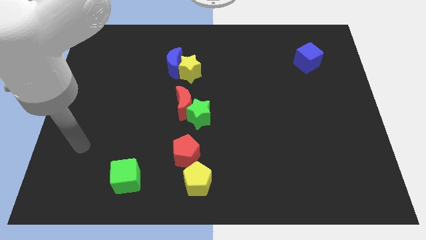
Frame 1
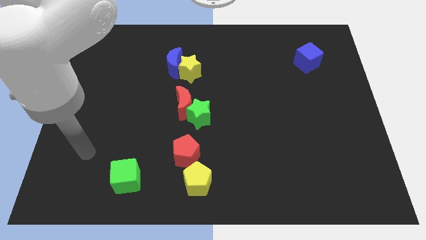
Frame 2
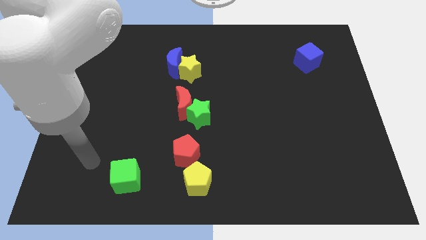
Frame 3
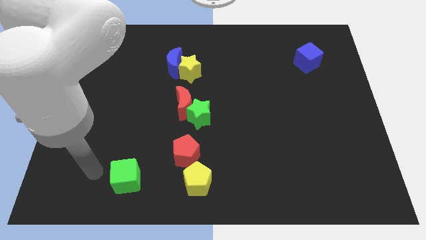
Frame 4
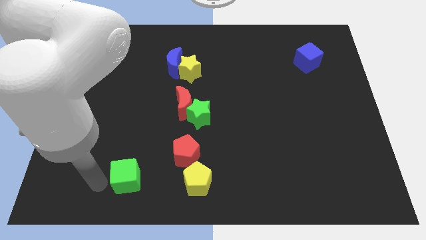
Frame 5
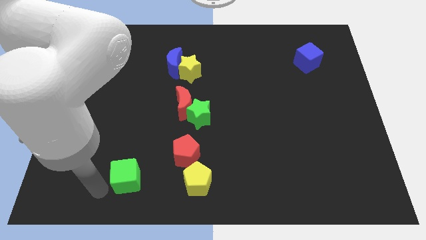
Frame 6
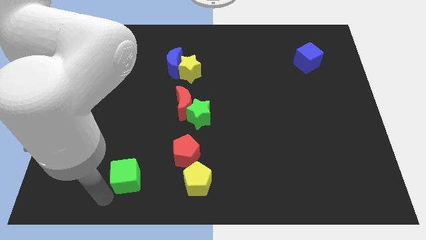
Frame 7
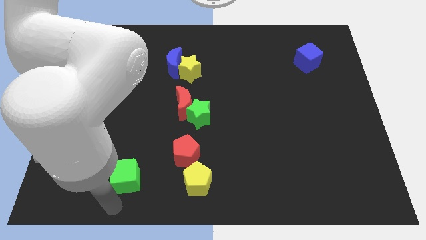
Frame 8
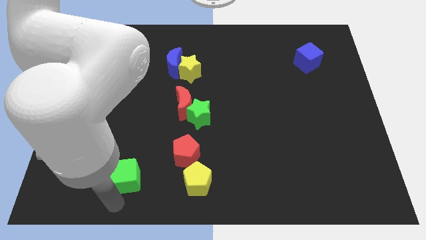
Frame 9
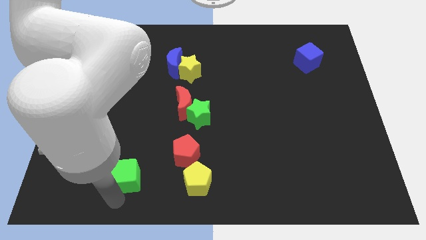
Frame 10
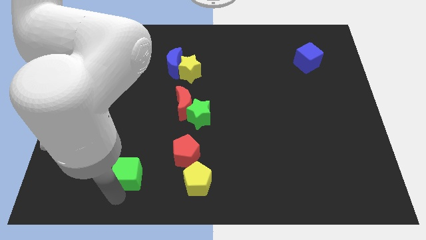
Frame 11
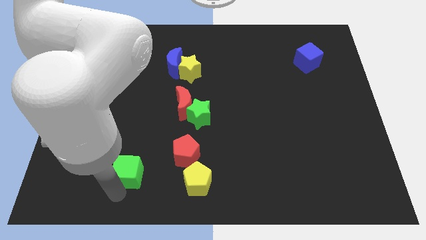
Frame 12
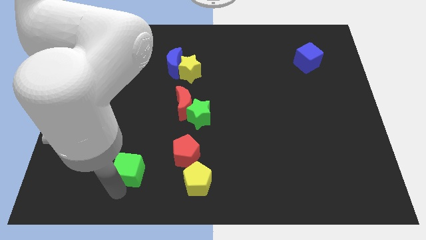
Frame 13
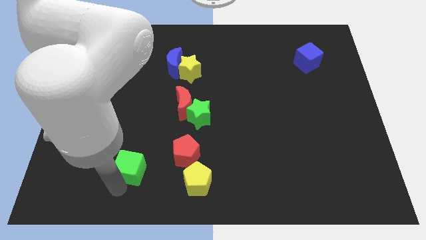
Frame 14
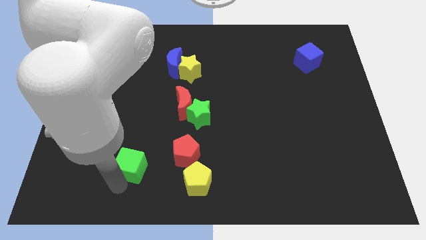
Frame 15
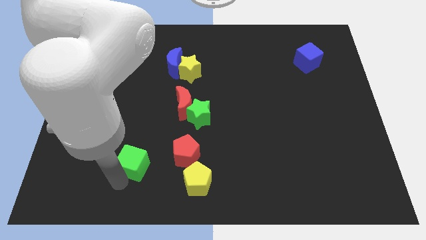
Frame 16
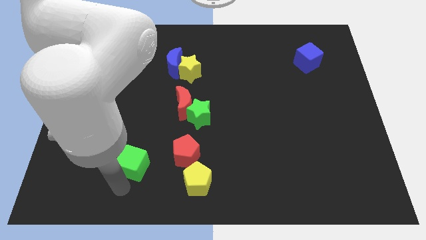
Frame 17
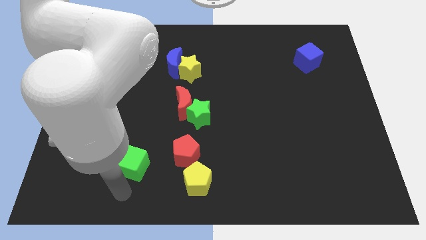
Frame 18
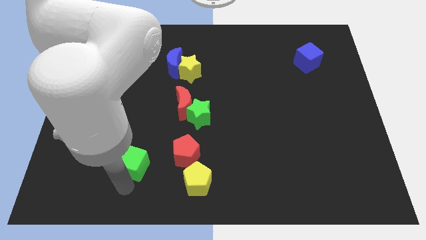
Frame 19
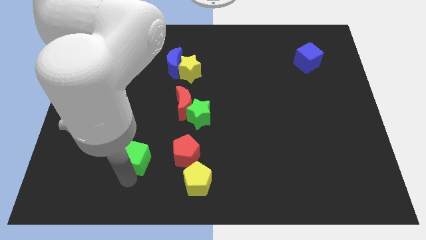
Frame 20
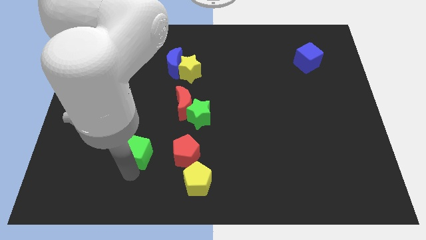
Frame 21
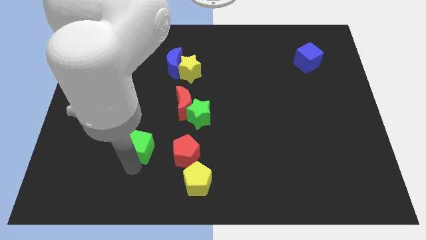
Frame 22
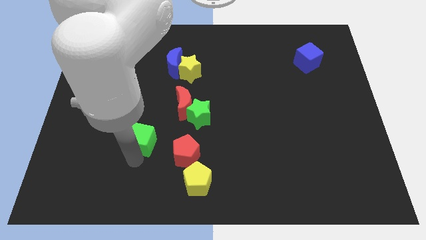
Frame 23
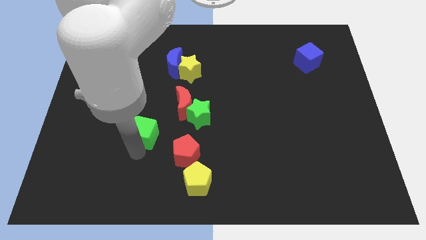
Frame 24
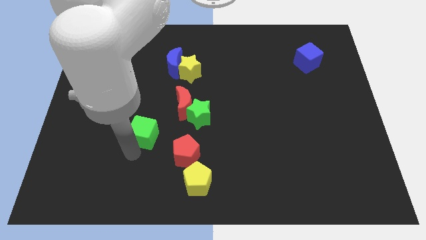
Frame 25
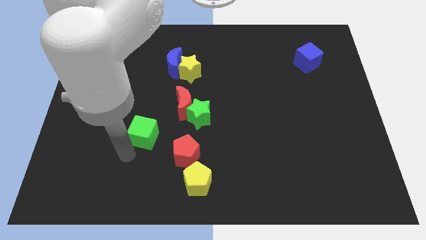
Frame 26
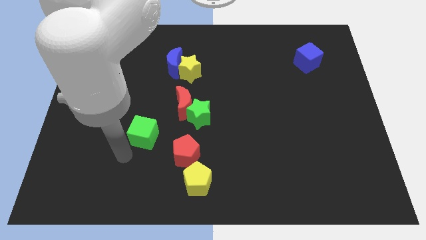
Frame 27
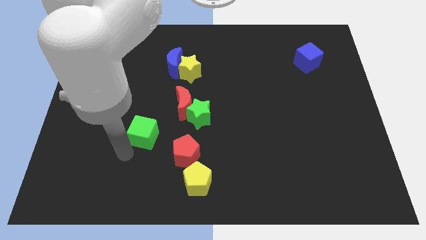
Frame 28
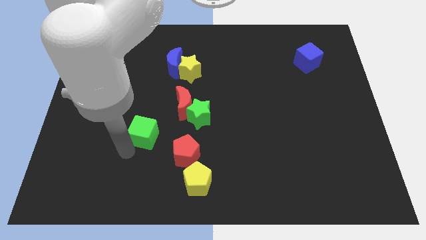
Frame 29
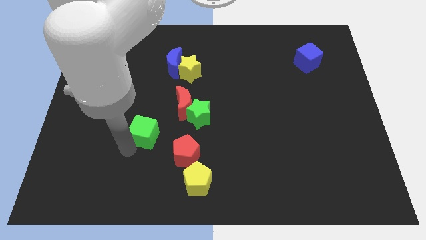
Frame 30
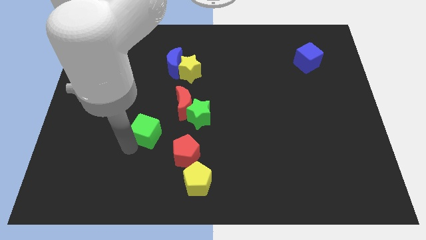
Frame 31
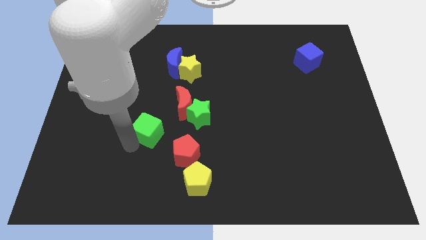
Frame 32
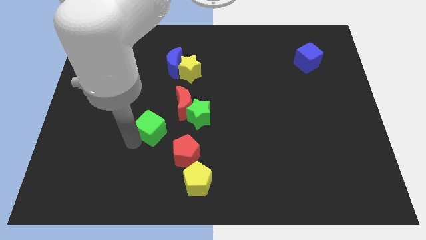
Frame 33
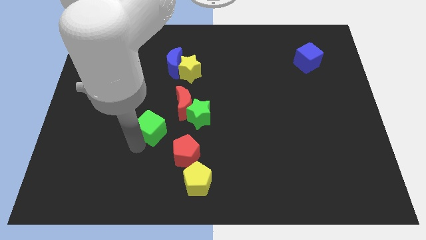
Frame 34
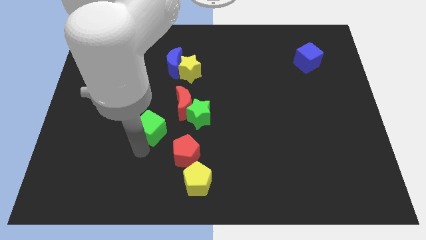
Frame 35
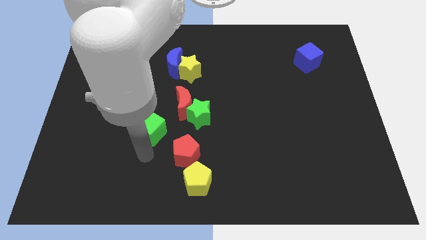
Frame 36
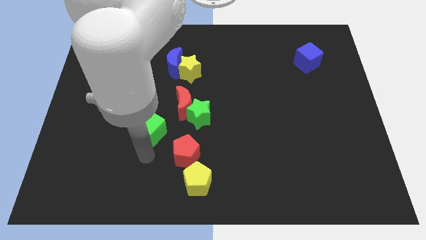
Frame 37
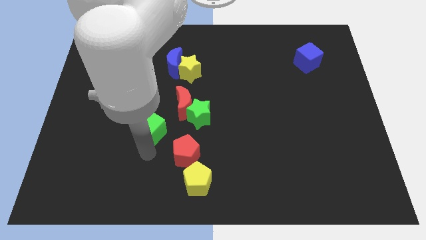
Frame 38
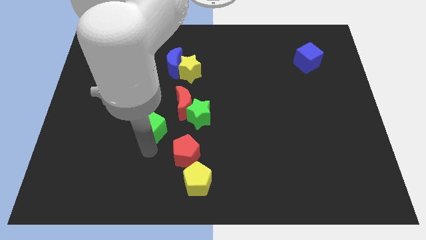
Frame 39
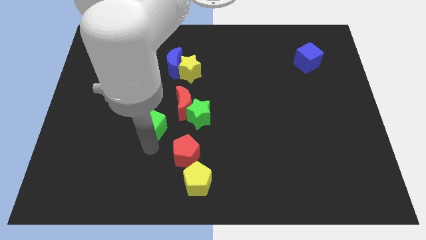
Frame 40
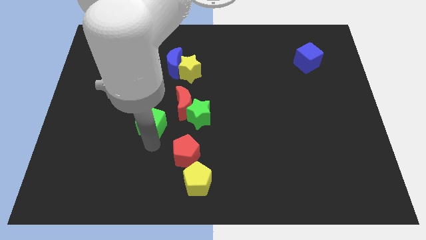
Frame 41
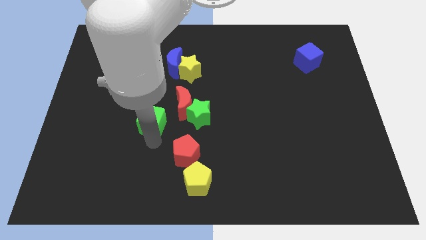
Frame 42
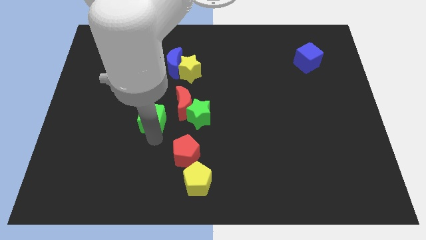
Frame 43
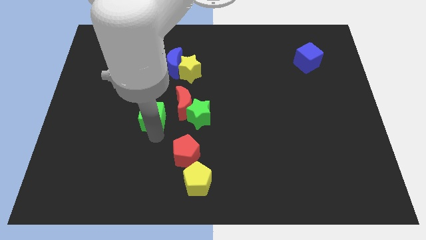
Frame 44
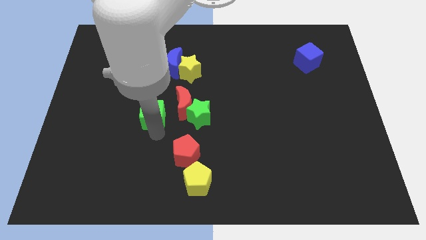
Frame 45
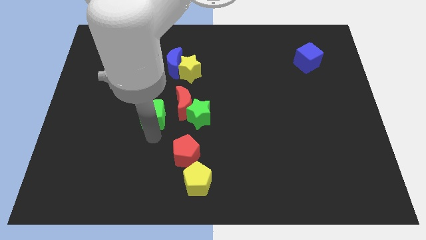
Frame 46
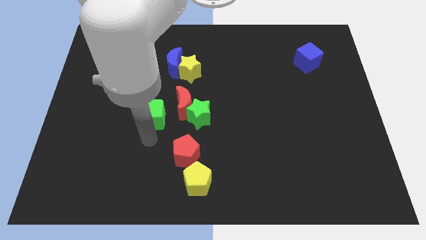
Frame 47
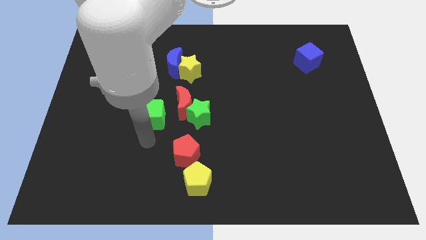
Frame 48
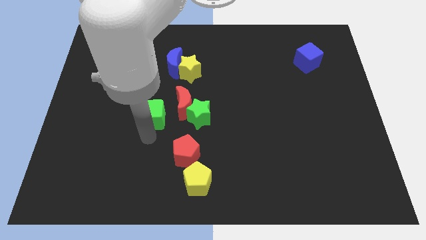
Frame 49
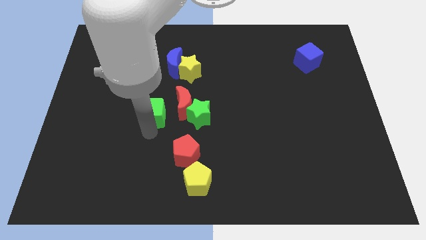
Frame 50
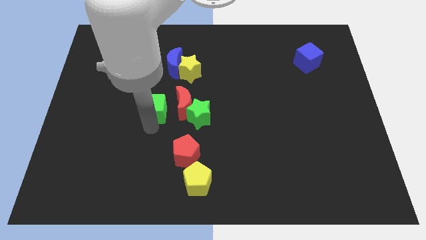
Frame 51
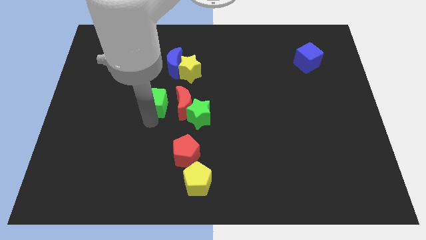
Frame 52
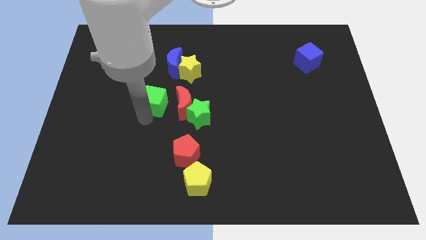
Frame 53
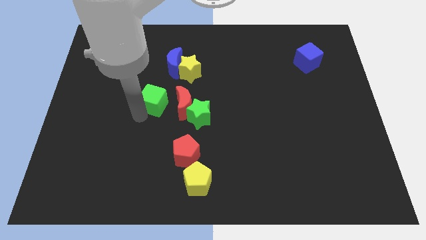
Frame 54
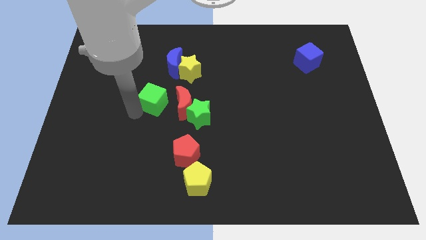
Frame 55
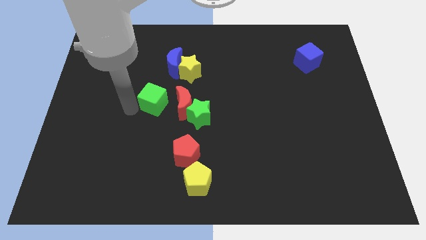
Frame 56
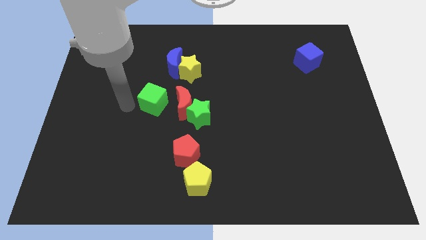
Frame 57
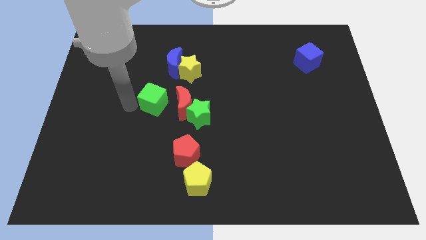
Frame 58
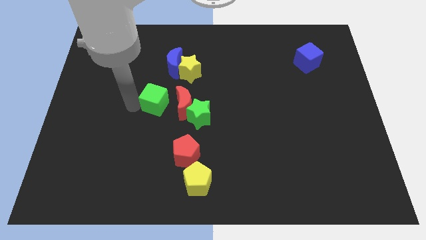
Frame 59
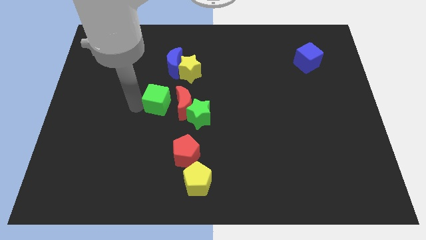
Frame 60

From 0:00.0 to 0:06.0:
move the green cube to the top left of the green star

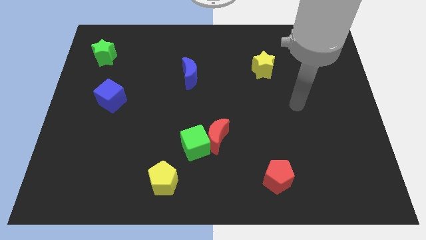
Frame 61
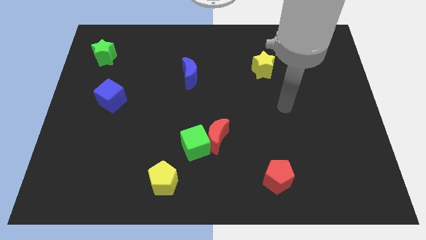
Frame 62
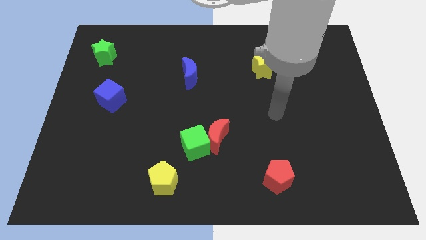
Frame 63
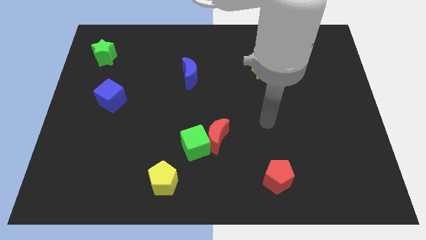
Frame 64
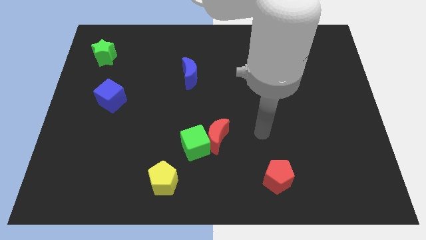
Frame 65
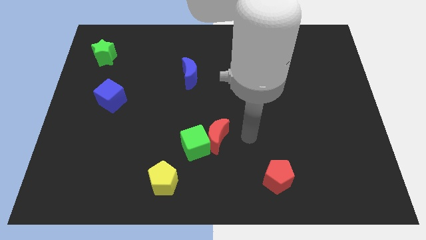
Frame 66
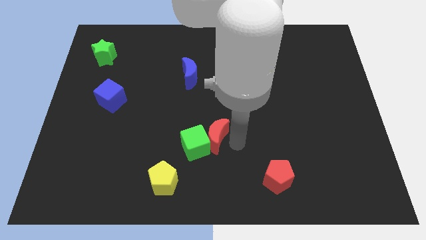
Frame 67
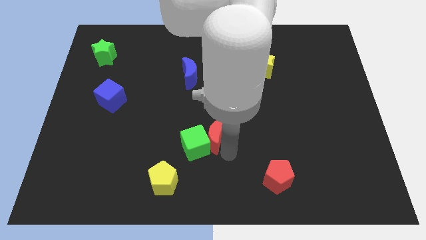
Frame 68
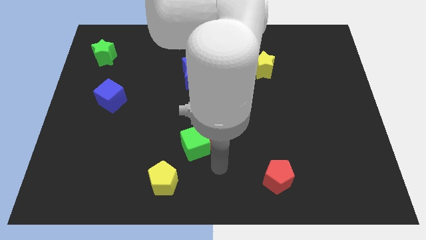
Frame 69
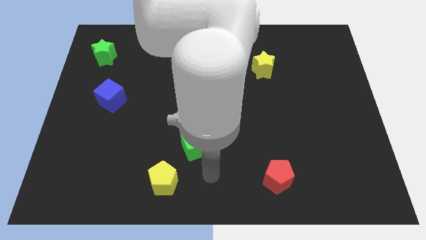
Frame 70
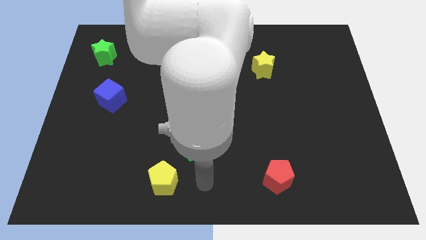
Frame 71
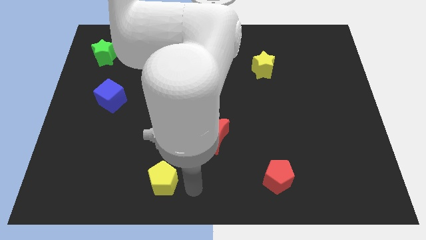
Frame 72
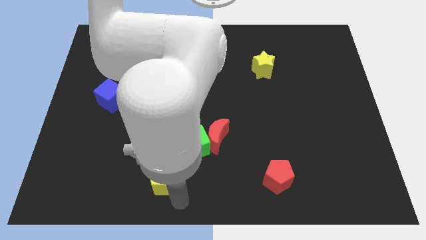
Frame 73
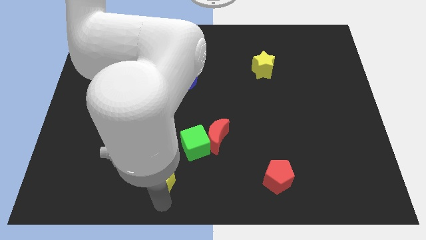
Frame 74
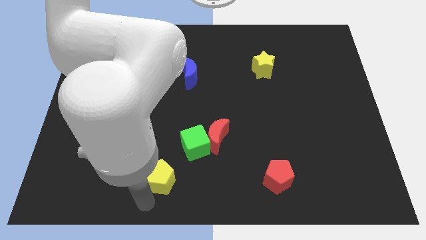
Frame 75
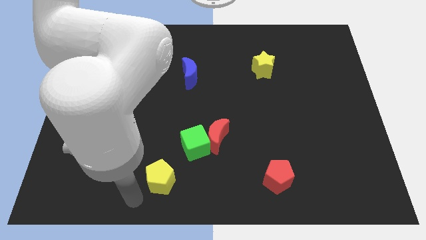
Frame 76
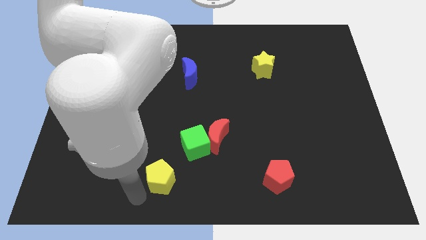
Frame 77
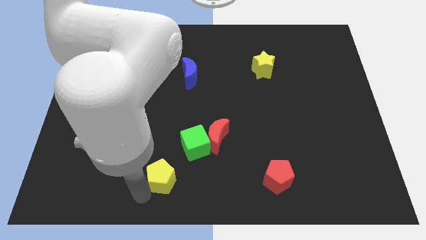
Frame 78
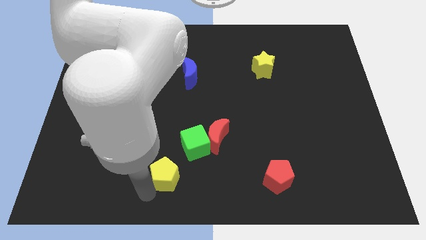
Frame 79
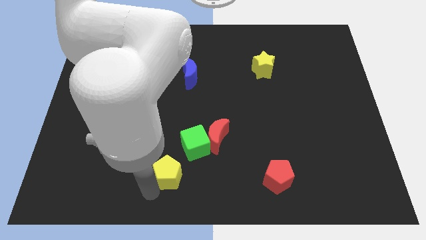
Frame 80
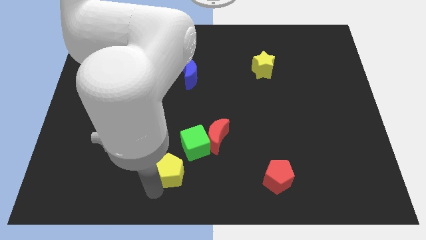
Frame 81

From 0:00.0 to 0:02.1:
put the yellow pentagon to the bottom left side of the red moon

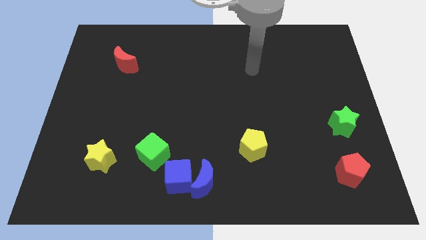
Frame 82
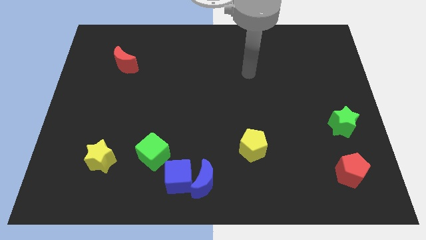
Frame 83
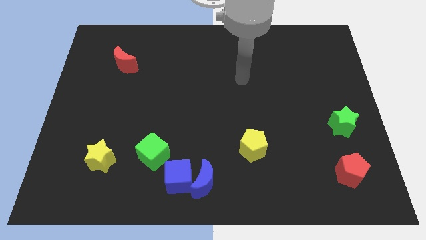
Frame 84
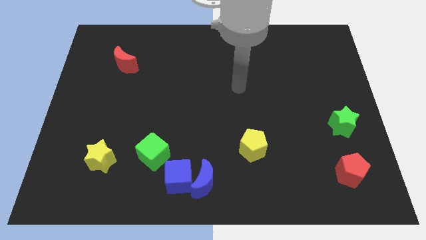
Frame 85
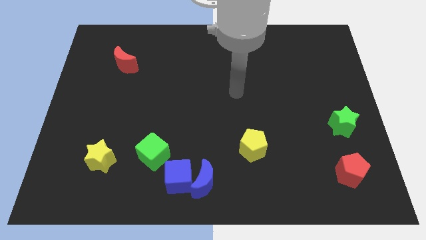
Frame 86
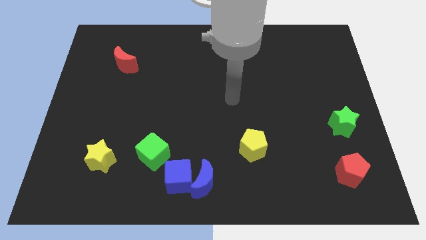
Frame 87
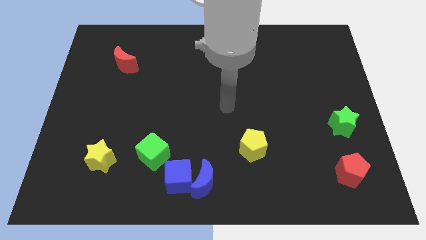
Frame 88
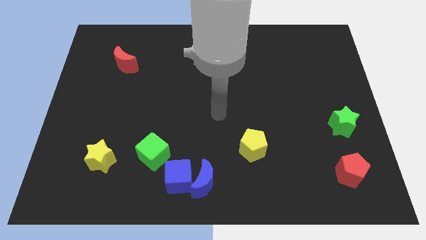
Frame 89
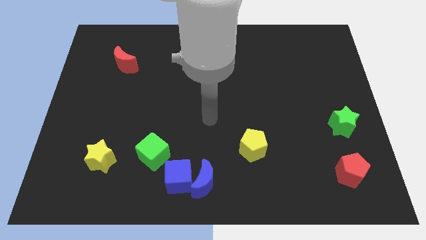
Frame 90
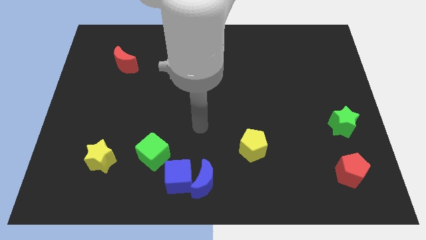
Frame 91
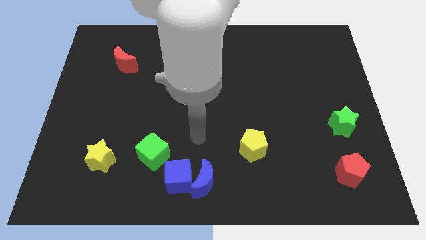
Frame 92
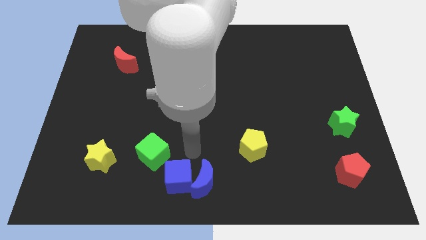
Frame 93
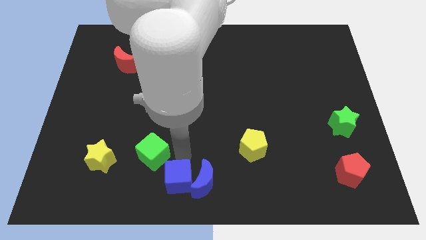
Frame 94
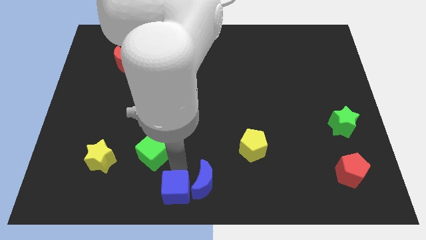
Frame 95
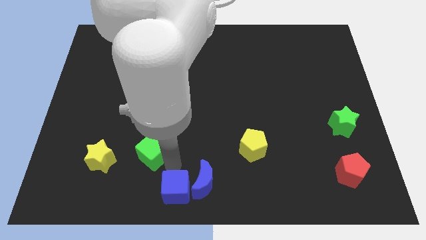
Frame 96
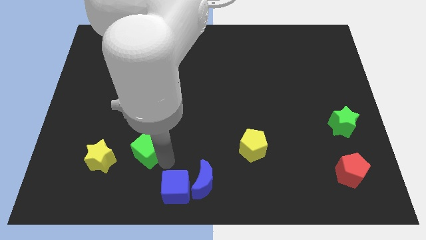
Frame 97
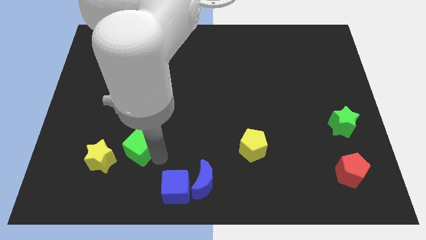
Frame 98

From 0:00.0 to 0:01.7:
slide the green cube to the top right side of the yellow star
